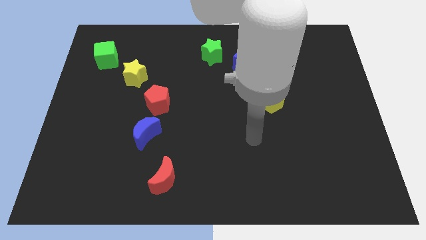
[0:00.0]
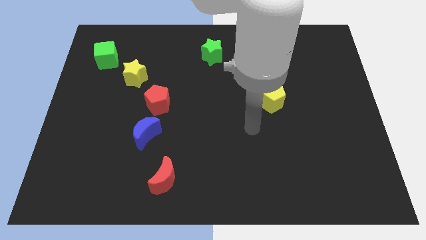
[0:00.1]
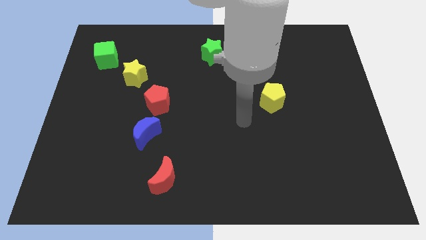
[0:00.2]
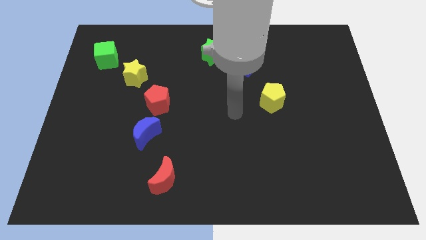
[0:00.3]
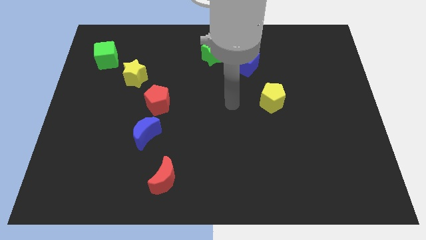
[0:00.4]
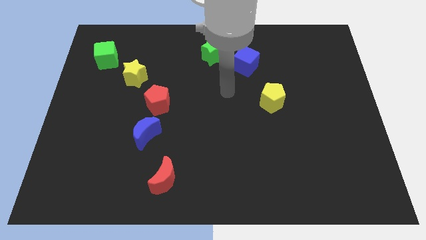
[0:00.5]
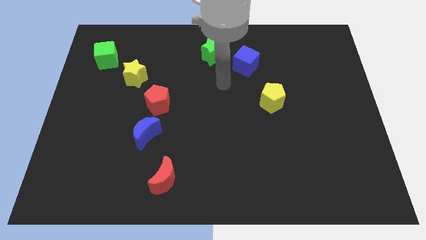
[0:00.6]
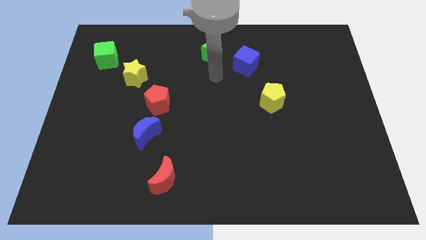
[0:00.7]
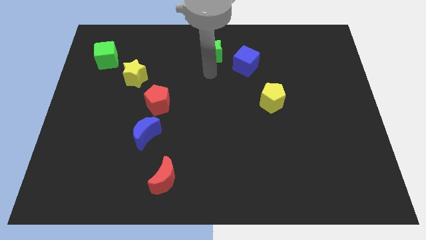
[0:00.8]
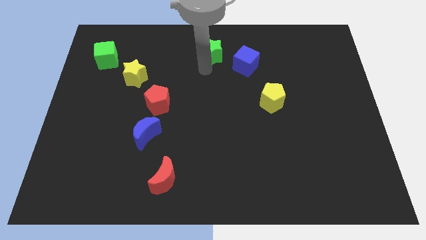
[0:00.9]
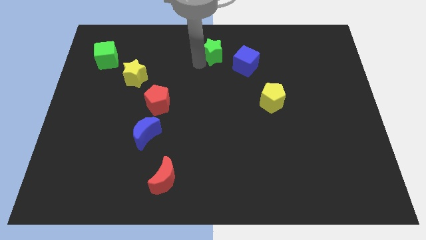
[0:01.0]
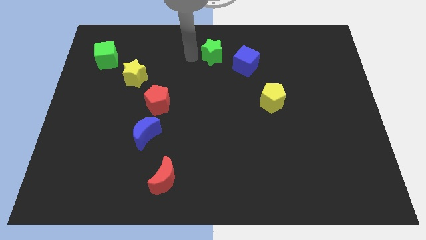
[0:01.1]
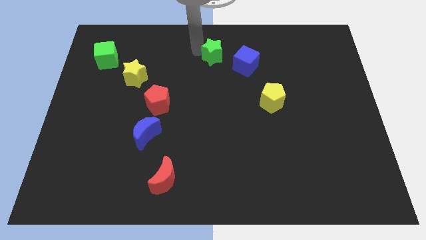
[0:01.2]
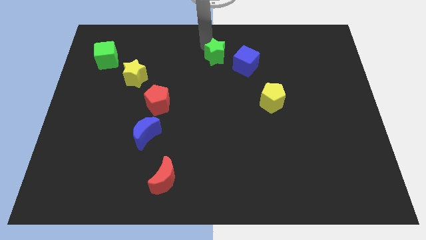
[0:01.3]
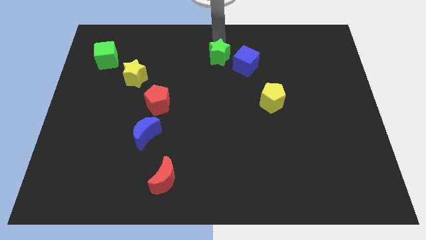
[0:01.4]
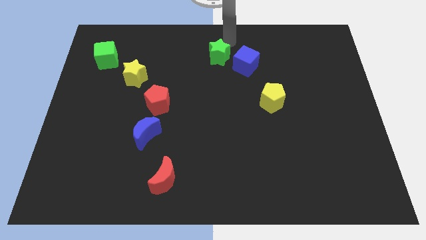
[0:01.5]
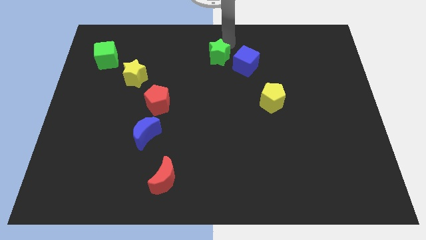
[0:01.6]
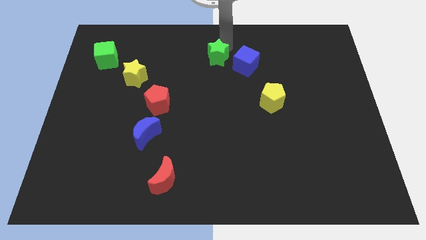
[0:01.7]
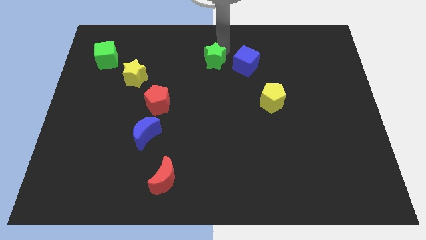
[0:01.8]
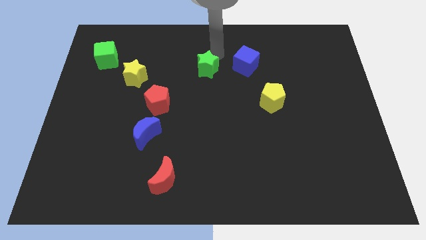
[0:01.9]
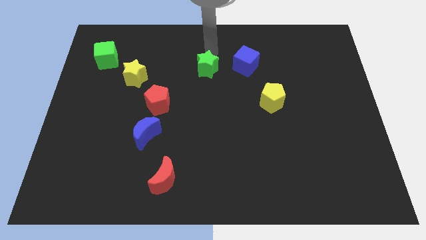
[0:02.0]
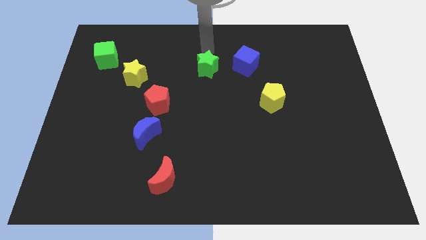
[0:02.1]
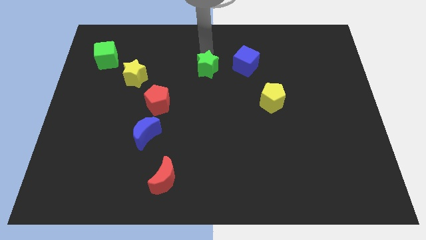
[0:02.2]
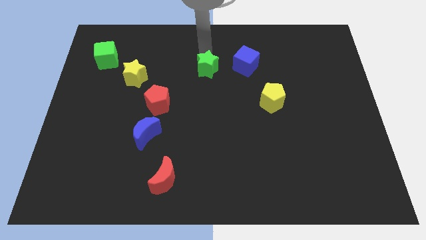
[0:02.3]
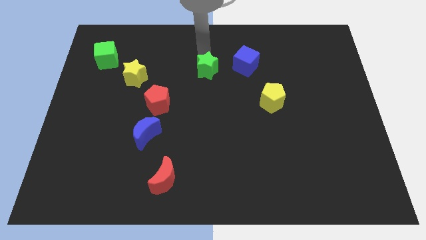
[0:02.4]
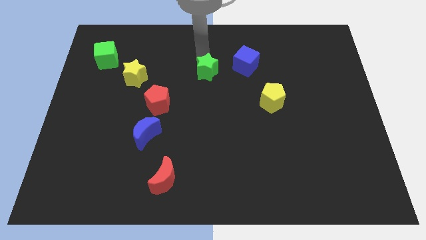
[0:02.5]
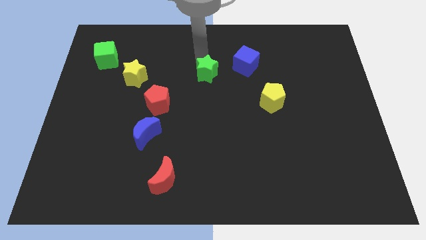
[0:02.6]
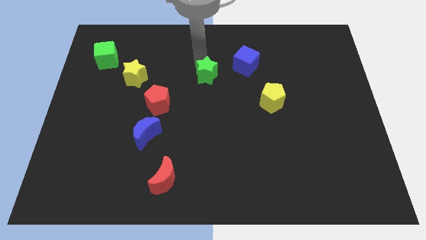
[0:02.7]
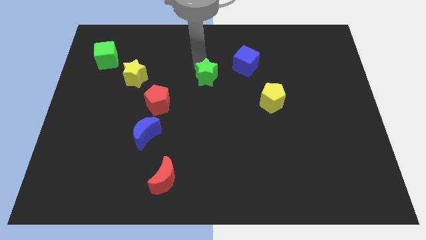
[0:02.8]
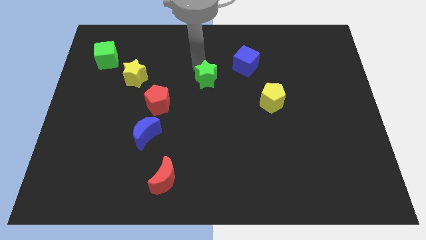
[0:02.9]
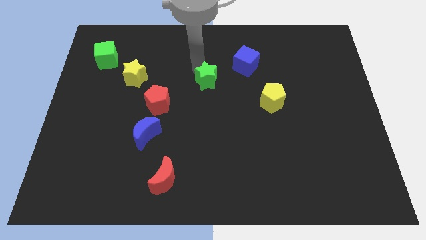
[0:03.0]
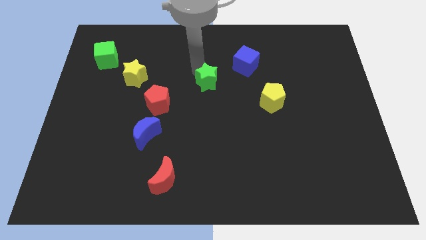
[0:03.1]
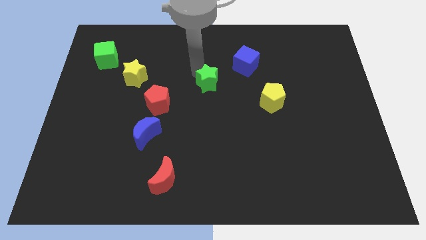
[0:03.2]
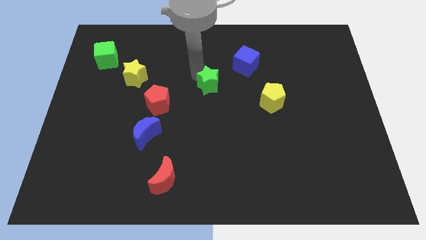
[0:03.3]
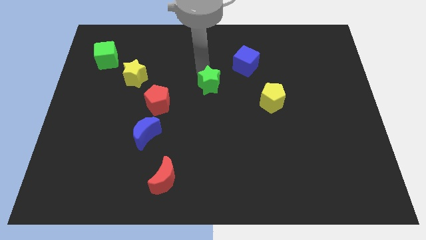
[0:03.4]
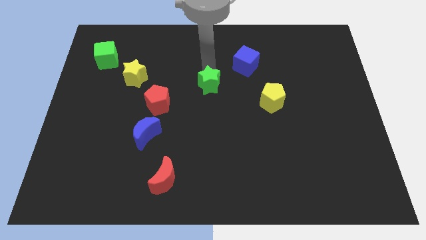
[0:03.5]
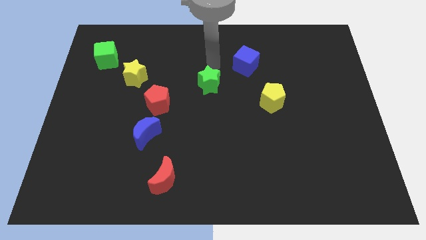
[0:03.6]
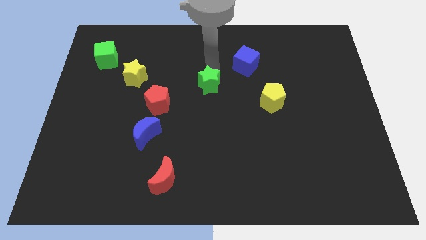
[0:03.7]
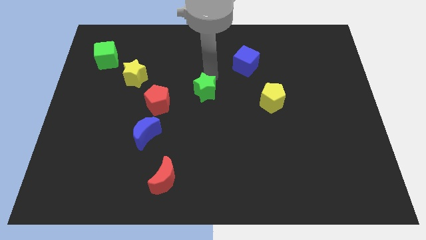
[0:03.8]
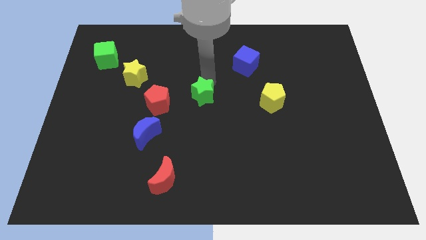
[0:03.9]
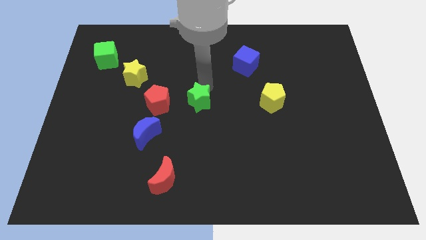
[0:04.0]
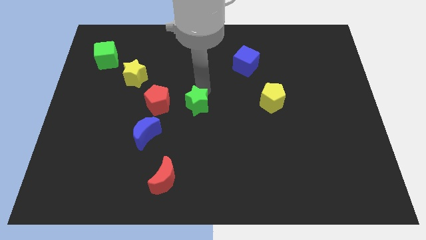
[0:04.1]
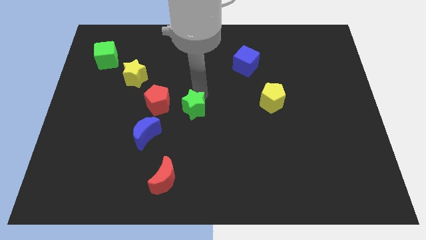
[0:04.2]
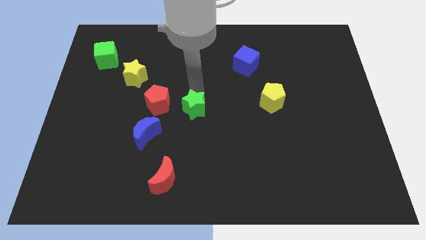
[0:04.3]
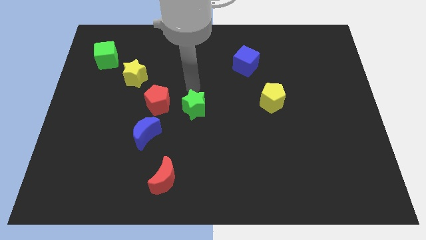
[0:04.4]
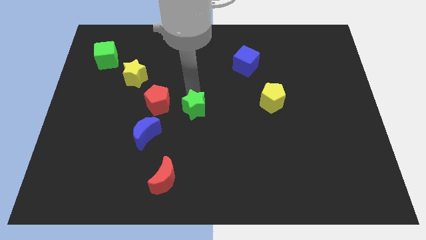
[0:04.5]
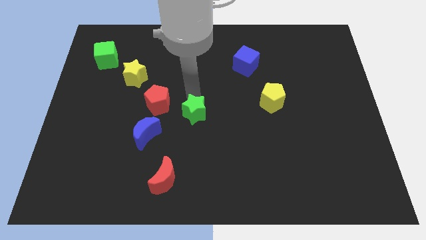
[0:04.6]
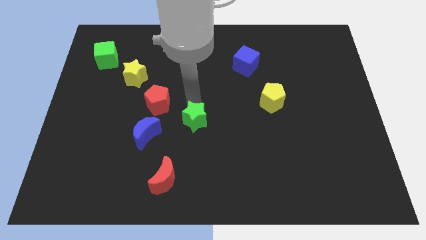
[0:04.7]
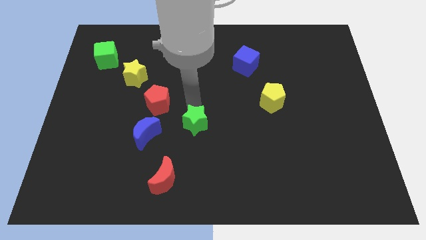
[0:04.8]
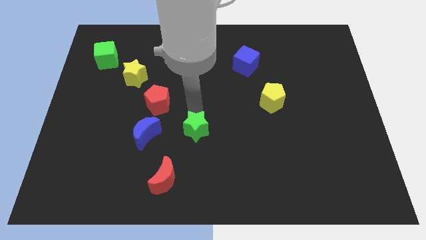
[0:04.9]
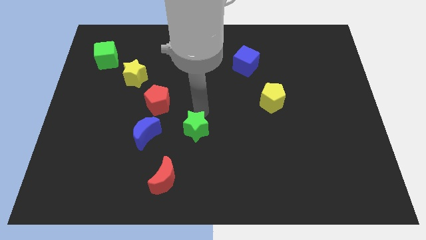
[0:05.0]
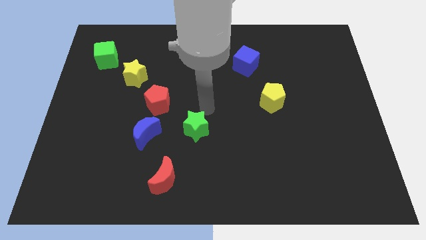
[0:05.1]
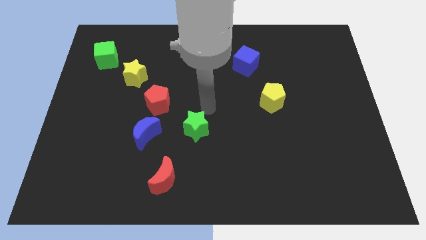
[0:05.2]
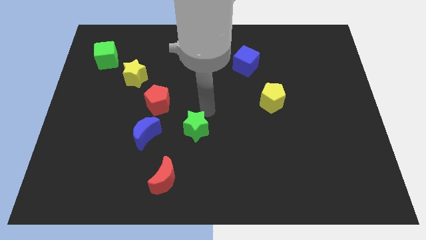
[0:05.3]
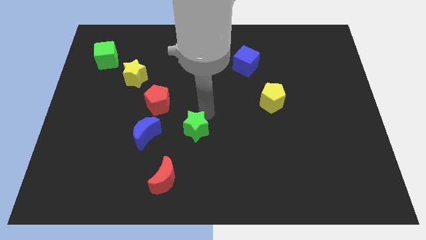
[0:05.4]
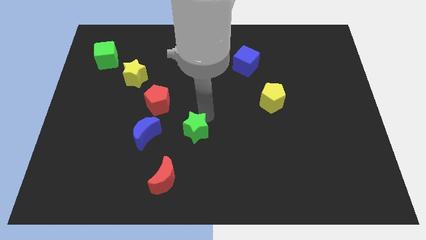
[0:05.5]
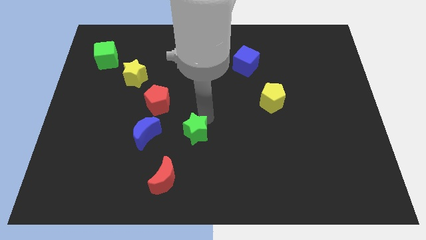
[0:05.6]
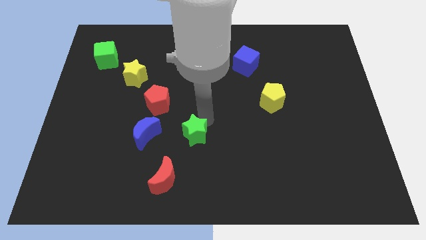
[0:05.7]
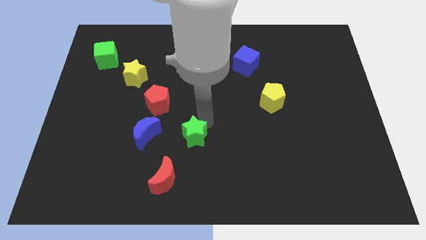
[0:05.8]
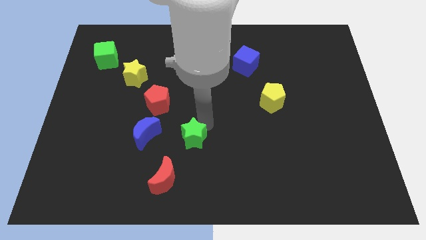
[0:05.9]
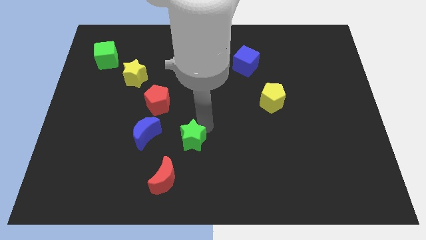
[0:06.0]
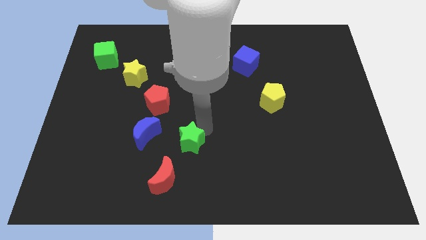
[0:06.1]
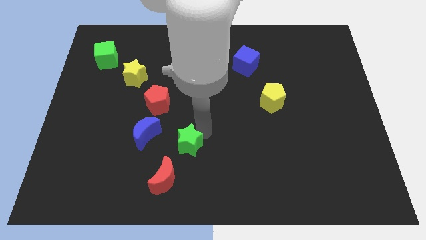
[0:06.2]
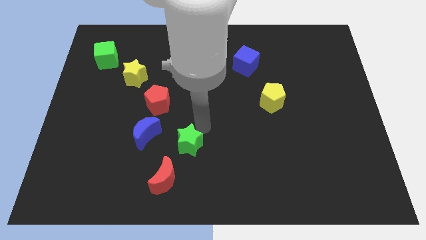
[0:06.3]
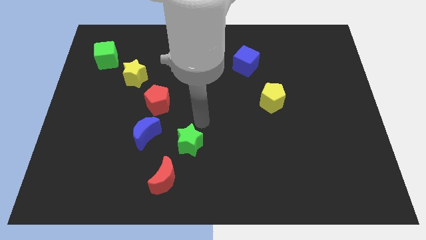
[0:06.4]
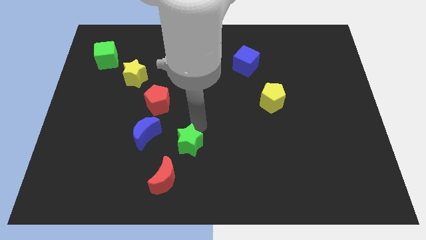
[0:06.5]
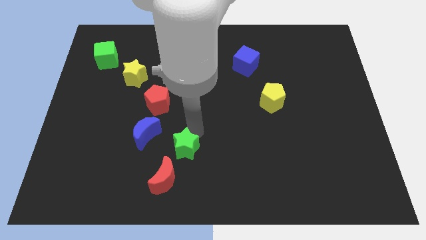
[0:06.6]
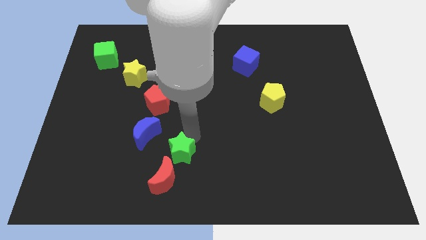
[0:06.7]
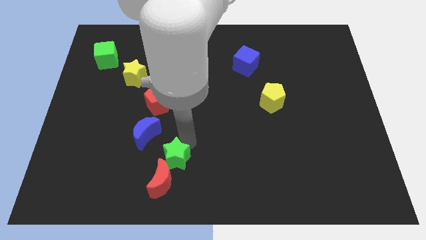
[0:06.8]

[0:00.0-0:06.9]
move the green star towards the red moon
